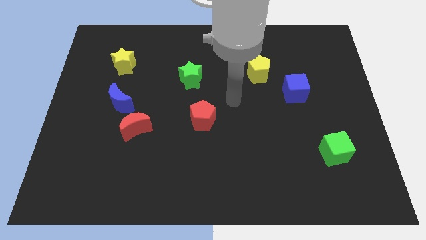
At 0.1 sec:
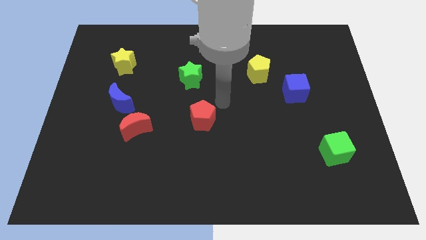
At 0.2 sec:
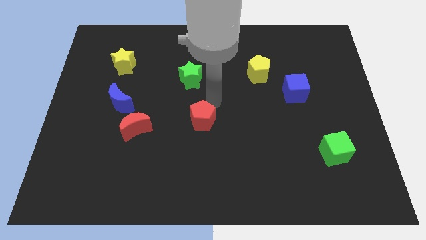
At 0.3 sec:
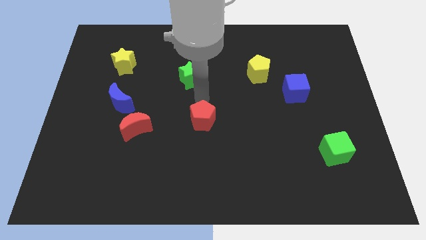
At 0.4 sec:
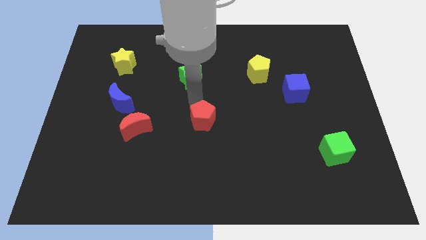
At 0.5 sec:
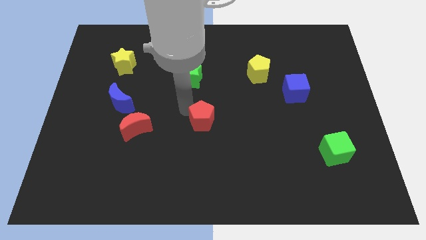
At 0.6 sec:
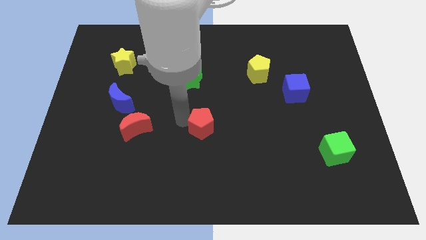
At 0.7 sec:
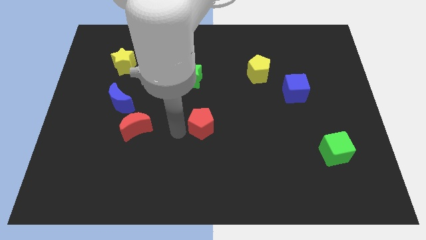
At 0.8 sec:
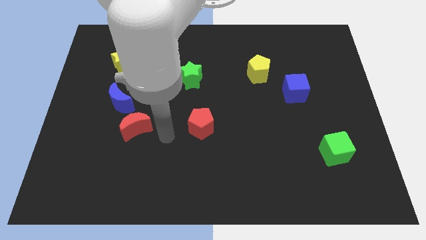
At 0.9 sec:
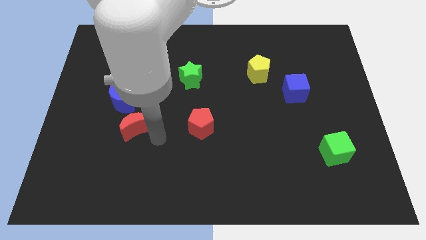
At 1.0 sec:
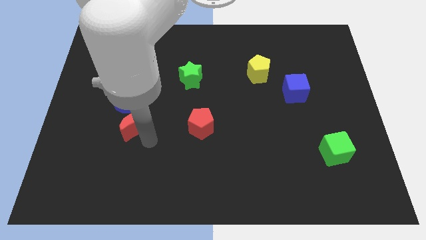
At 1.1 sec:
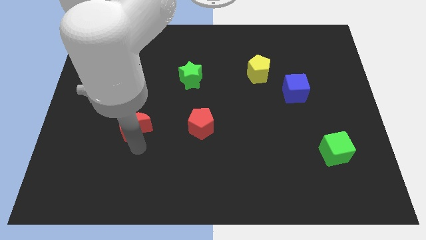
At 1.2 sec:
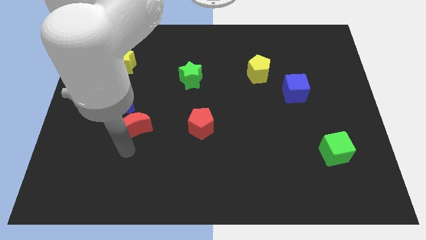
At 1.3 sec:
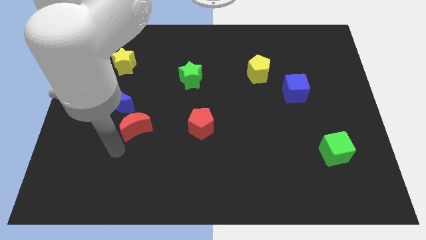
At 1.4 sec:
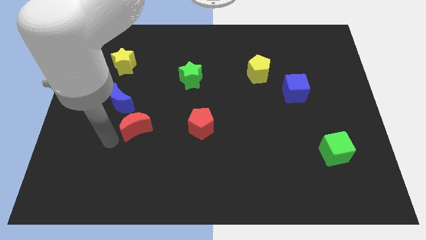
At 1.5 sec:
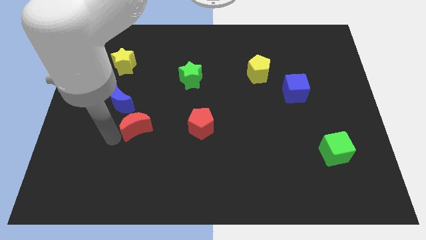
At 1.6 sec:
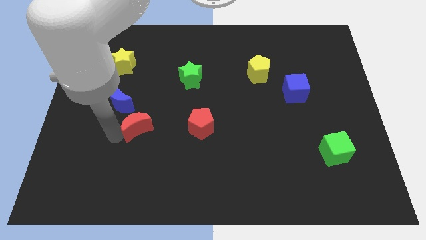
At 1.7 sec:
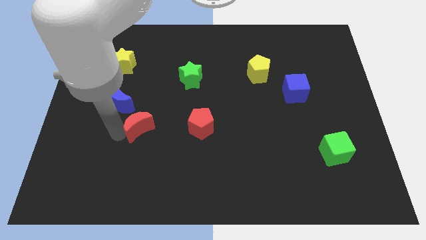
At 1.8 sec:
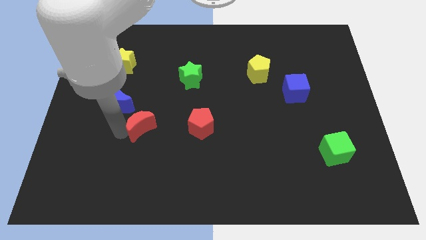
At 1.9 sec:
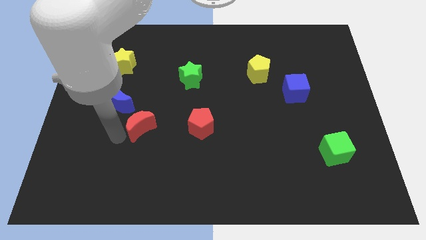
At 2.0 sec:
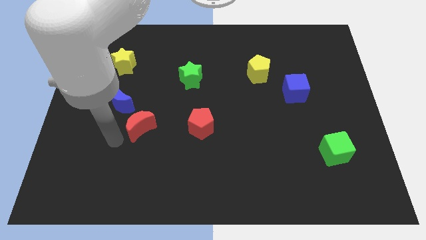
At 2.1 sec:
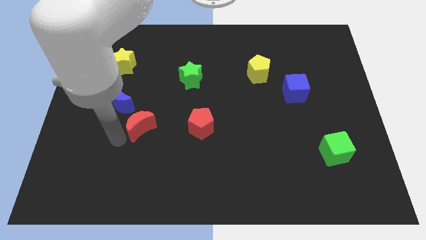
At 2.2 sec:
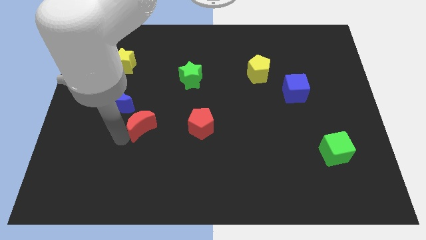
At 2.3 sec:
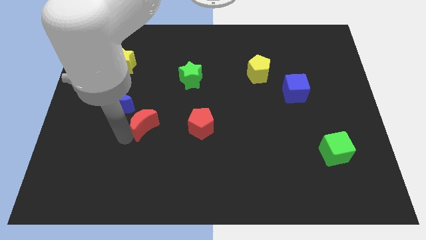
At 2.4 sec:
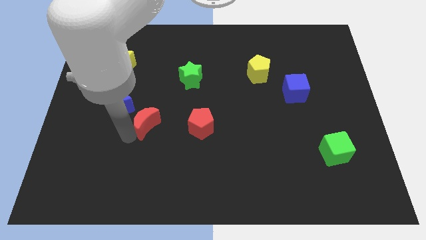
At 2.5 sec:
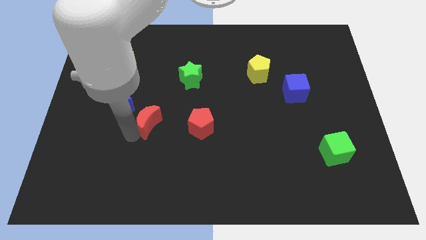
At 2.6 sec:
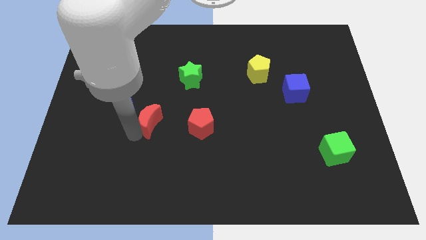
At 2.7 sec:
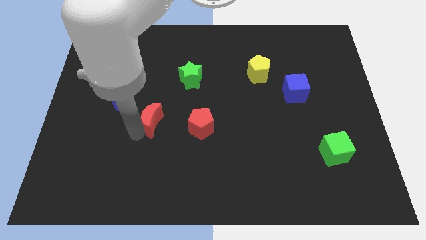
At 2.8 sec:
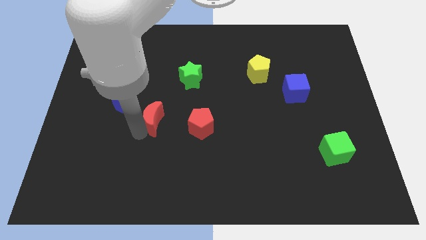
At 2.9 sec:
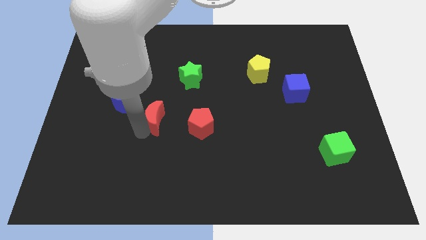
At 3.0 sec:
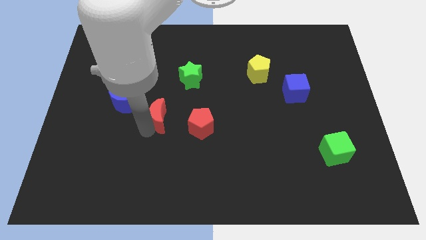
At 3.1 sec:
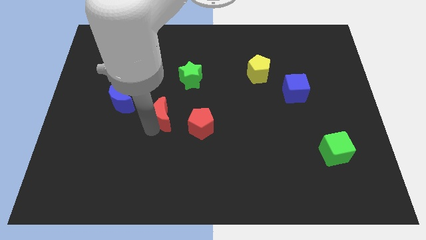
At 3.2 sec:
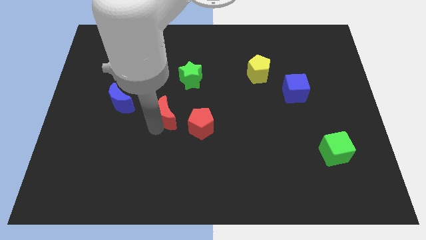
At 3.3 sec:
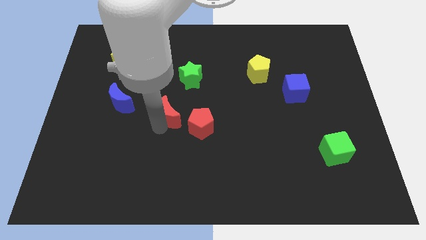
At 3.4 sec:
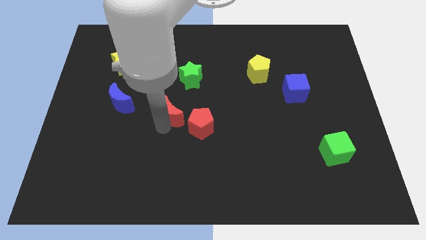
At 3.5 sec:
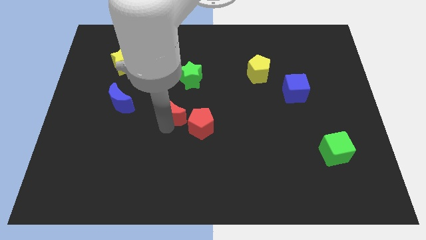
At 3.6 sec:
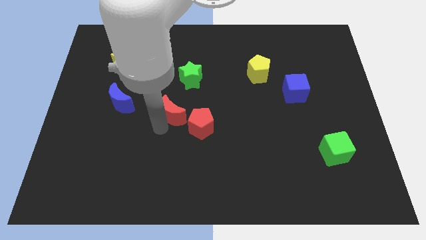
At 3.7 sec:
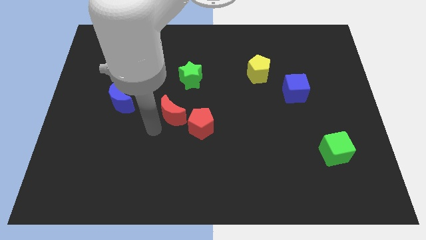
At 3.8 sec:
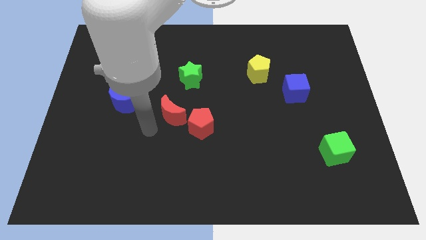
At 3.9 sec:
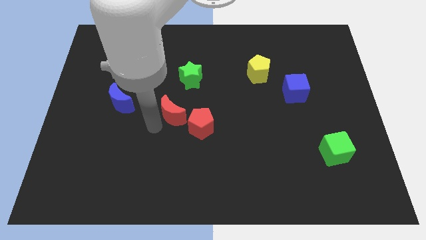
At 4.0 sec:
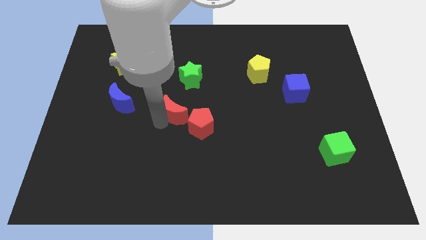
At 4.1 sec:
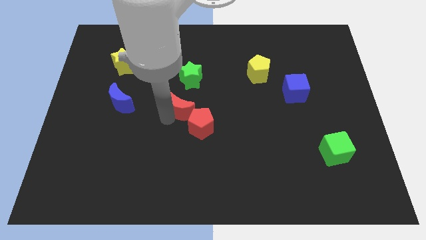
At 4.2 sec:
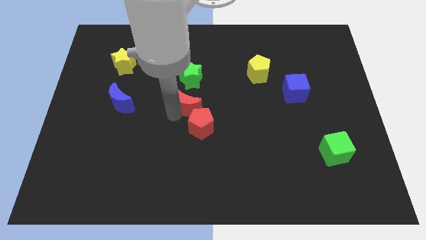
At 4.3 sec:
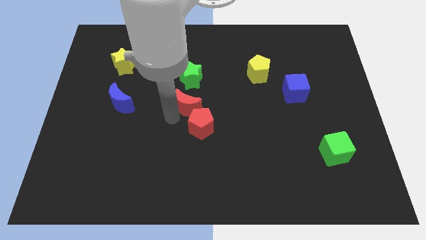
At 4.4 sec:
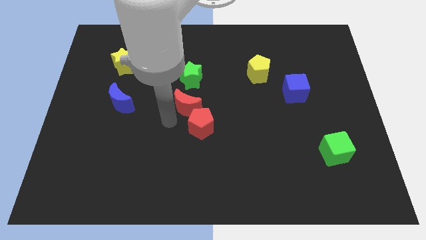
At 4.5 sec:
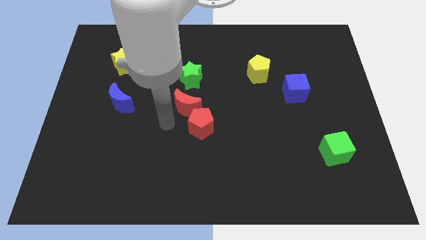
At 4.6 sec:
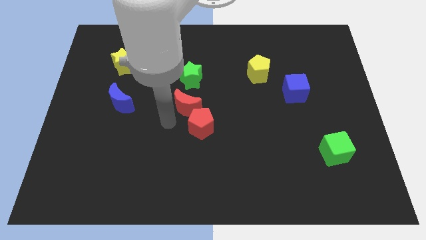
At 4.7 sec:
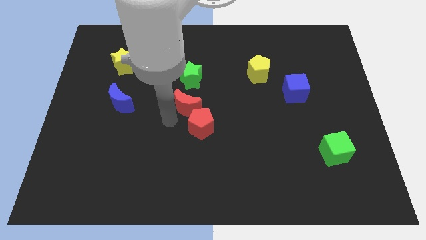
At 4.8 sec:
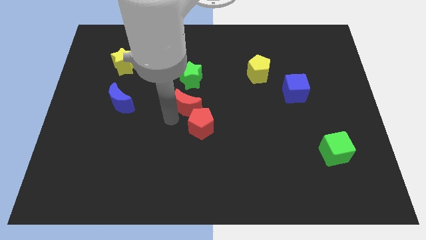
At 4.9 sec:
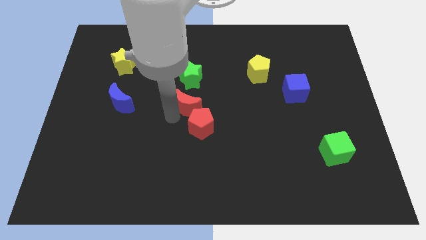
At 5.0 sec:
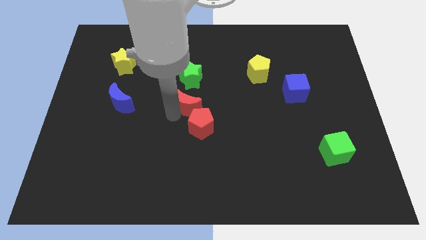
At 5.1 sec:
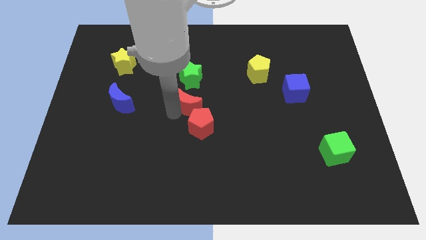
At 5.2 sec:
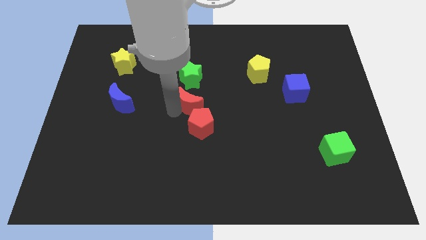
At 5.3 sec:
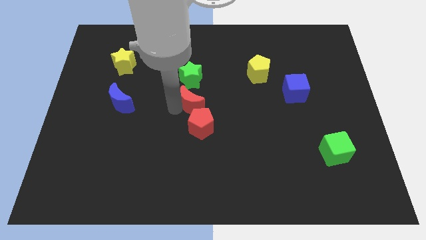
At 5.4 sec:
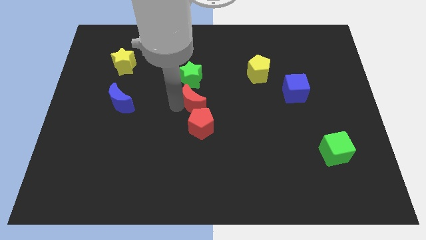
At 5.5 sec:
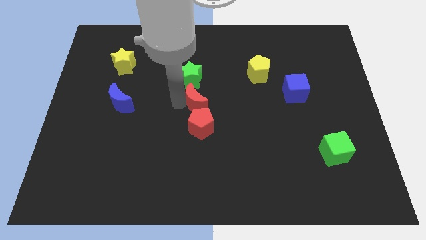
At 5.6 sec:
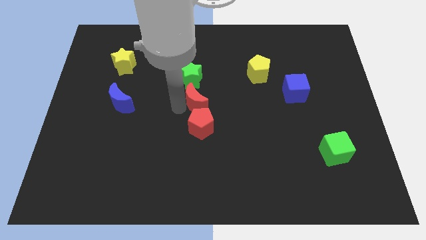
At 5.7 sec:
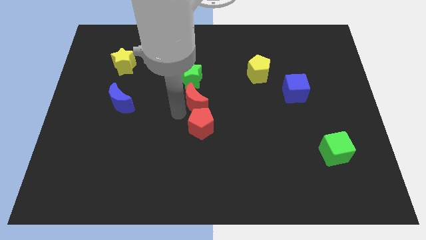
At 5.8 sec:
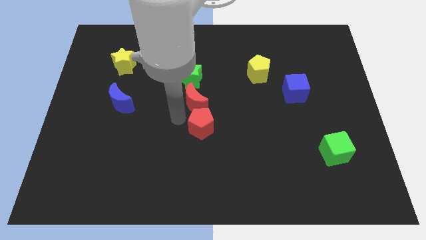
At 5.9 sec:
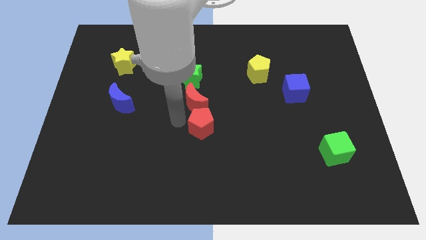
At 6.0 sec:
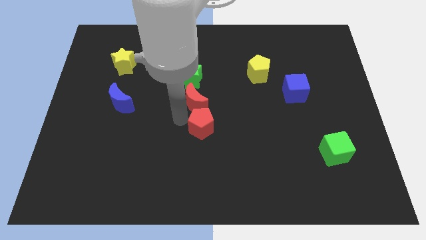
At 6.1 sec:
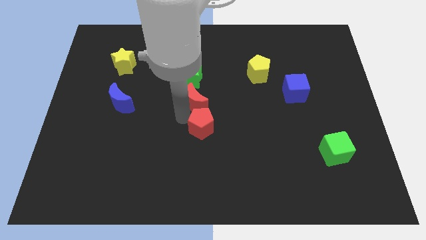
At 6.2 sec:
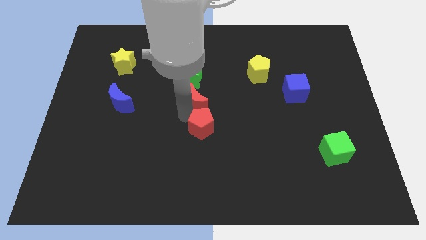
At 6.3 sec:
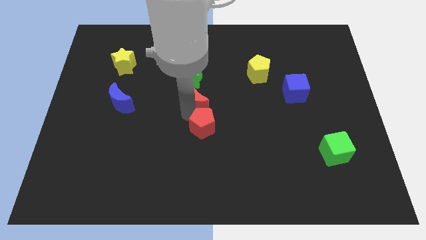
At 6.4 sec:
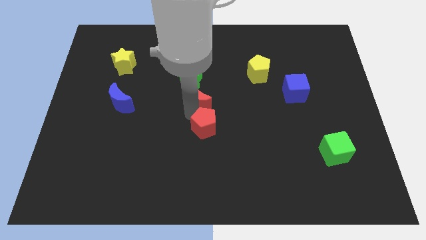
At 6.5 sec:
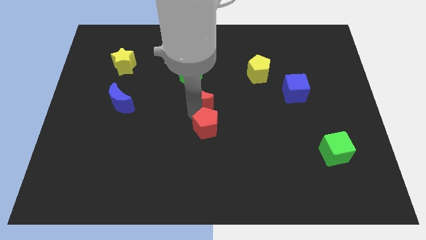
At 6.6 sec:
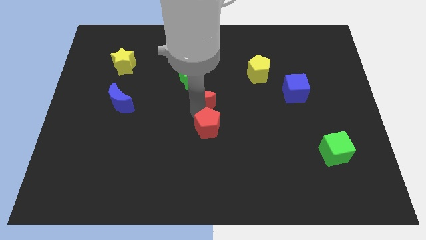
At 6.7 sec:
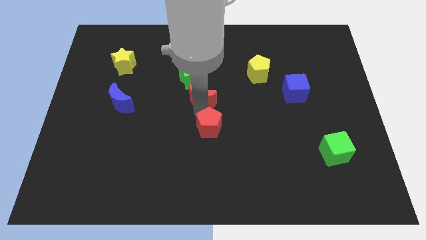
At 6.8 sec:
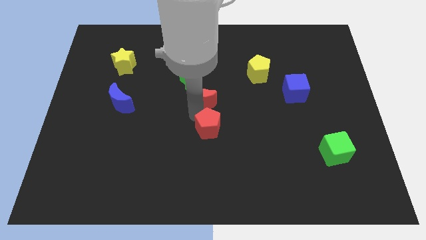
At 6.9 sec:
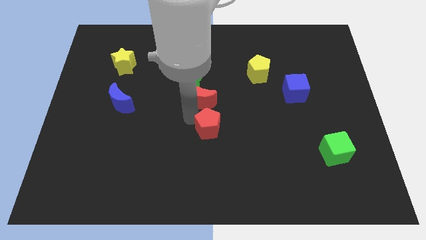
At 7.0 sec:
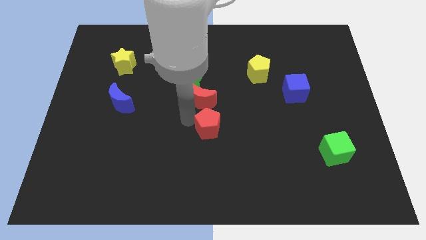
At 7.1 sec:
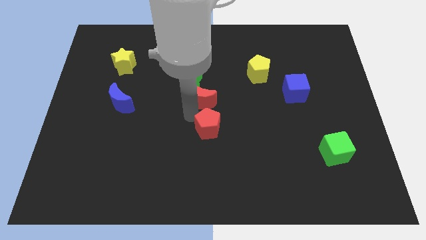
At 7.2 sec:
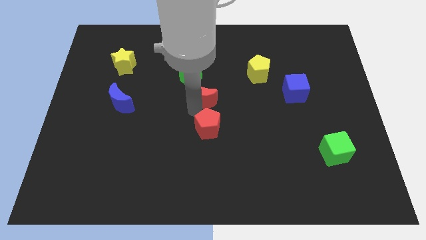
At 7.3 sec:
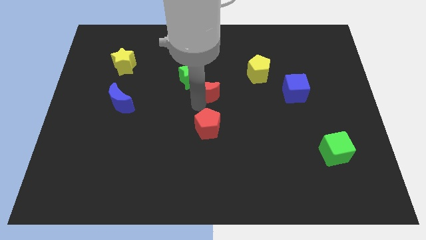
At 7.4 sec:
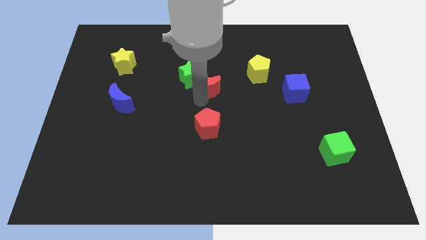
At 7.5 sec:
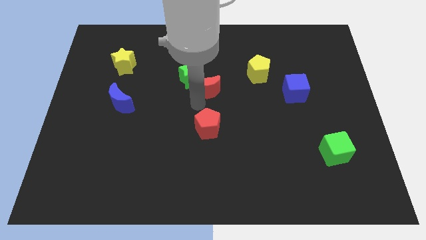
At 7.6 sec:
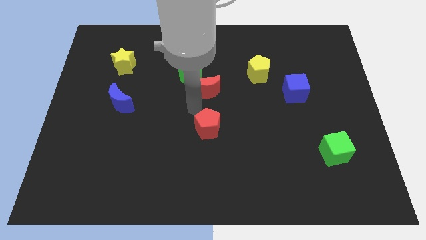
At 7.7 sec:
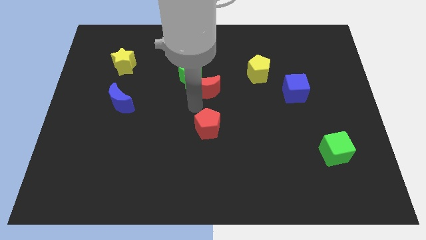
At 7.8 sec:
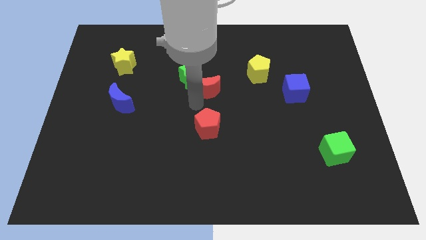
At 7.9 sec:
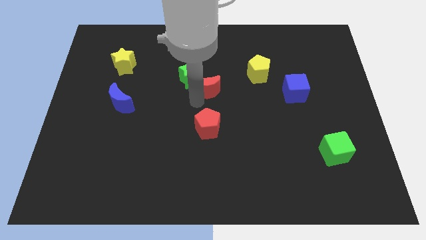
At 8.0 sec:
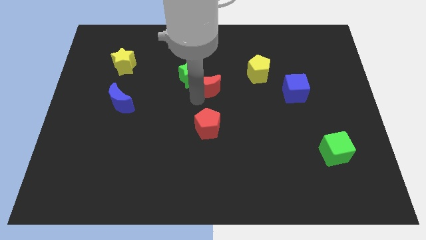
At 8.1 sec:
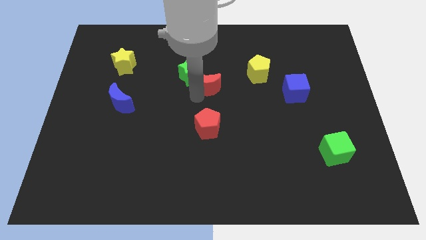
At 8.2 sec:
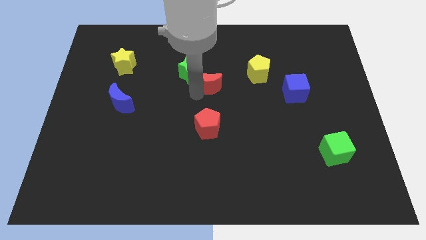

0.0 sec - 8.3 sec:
move the red moon diagonally up and to the right
